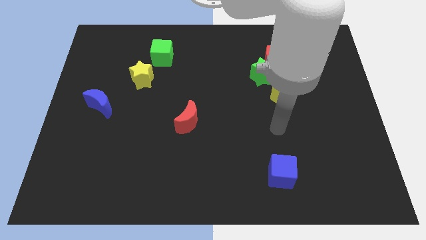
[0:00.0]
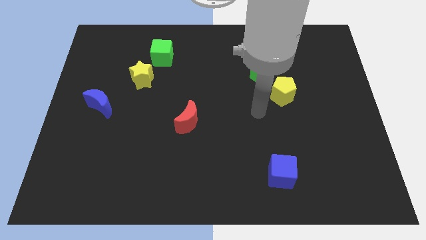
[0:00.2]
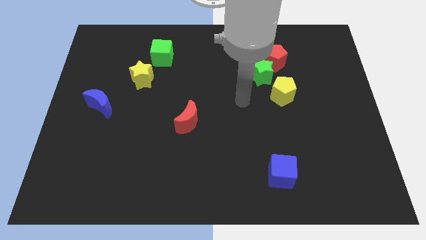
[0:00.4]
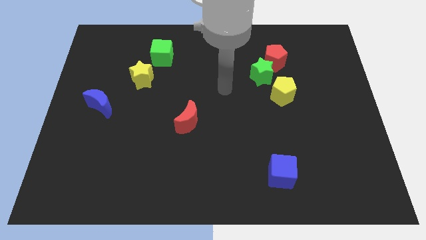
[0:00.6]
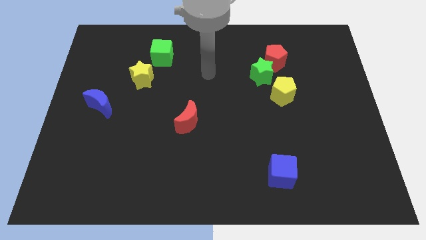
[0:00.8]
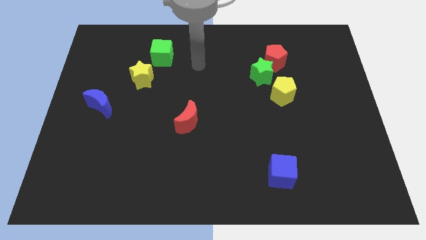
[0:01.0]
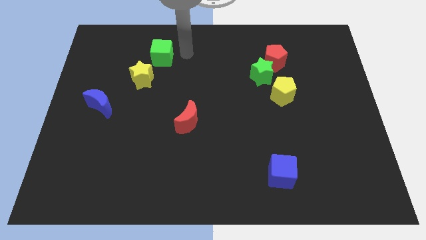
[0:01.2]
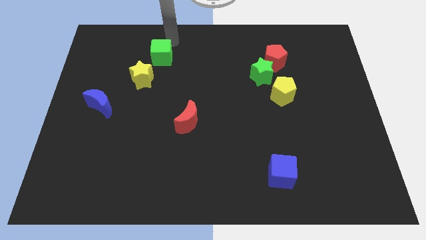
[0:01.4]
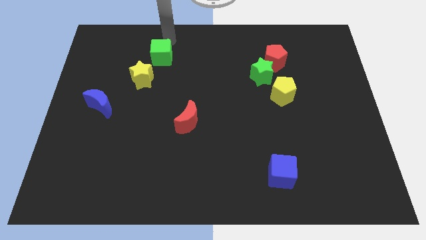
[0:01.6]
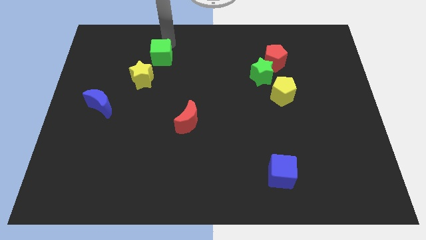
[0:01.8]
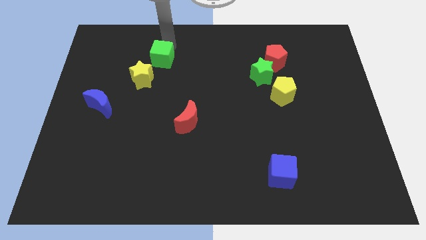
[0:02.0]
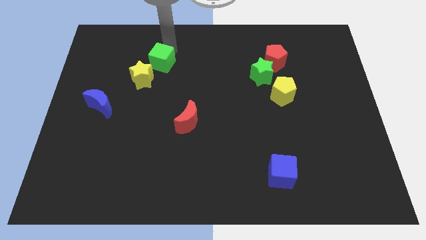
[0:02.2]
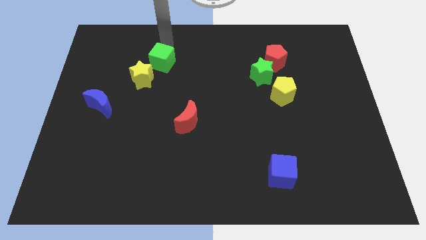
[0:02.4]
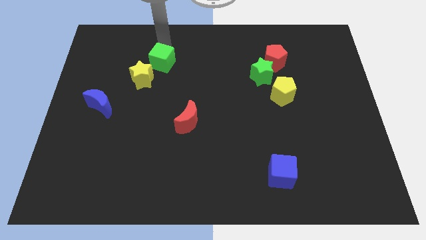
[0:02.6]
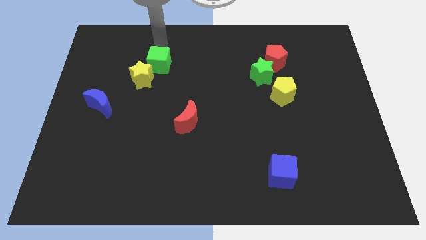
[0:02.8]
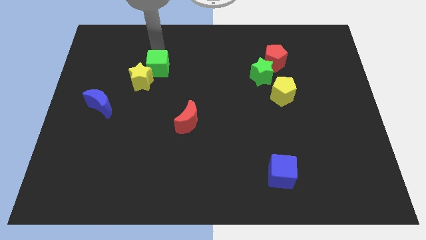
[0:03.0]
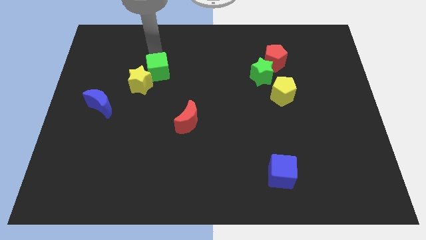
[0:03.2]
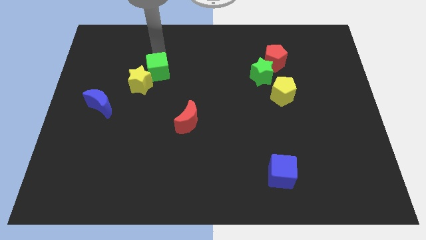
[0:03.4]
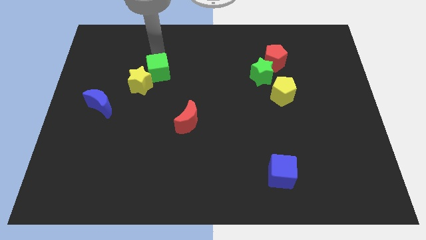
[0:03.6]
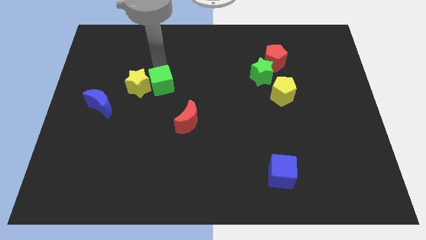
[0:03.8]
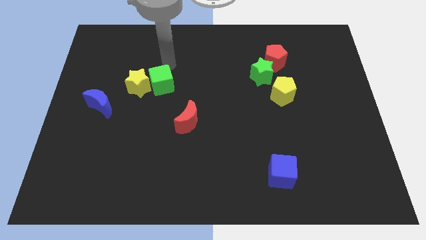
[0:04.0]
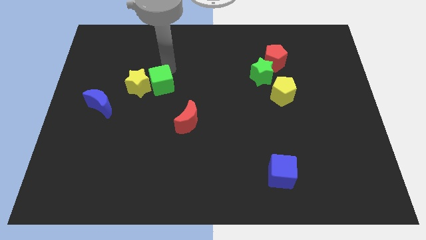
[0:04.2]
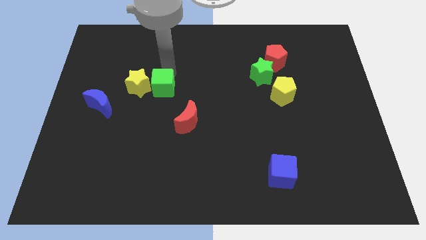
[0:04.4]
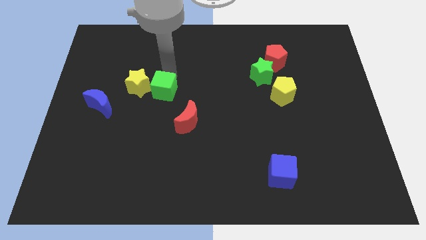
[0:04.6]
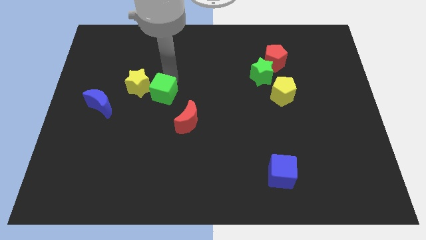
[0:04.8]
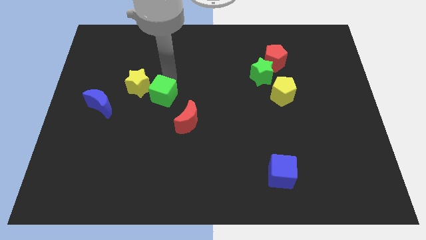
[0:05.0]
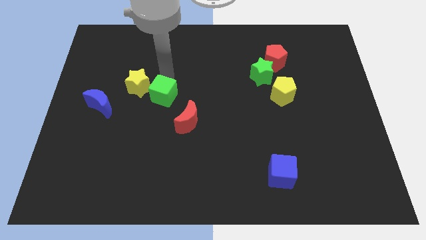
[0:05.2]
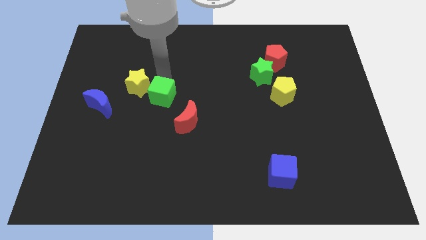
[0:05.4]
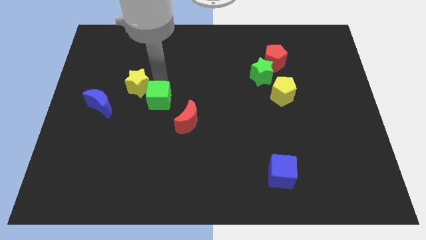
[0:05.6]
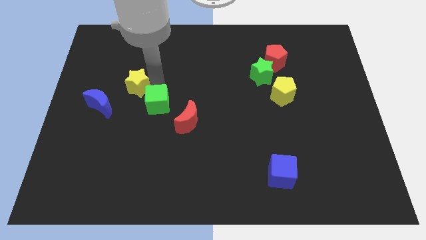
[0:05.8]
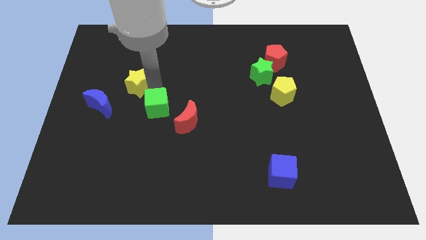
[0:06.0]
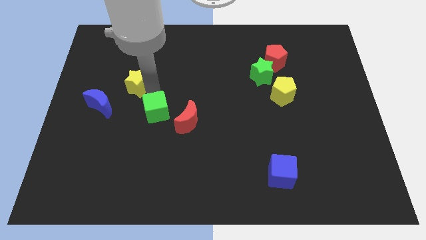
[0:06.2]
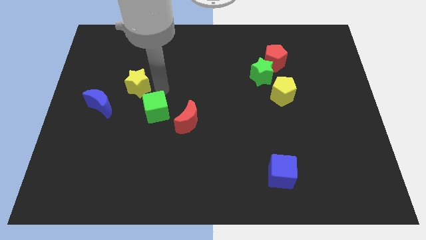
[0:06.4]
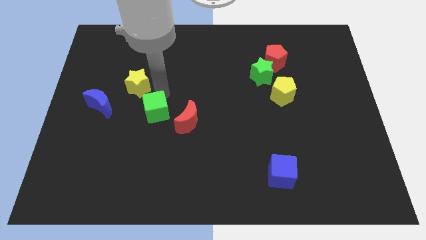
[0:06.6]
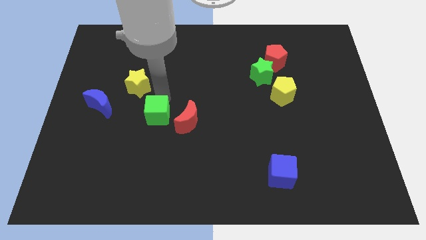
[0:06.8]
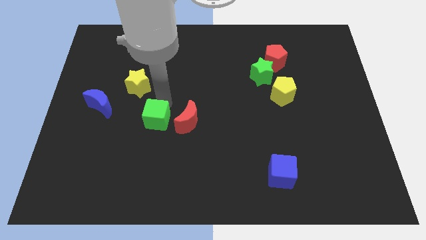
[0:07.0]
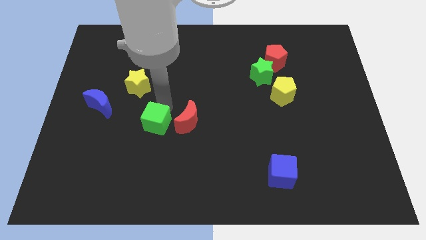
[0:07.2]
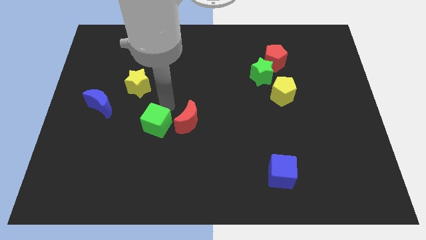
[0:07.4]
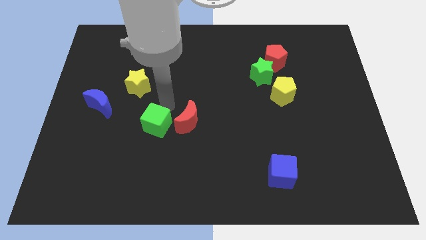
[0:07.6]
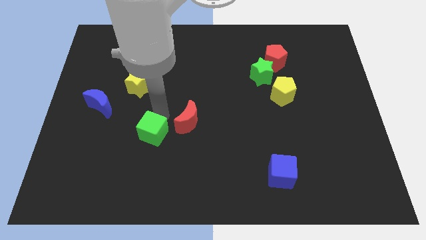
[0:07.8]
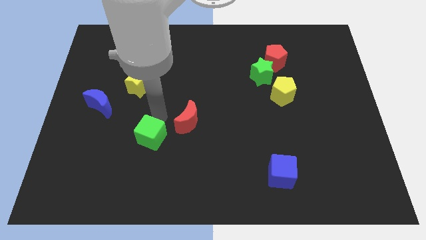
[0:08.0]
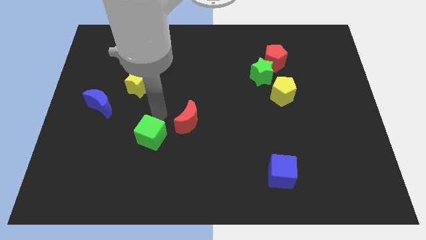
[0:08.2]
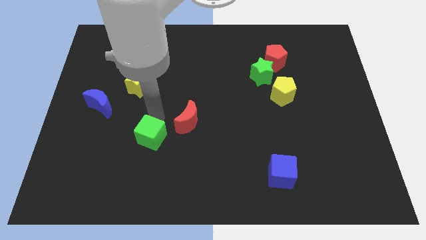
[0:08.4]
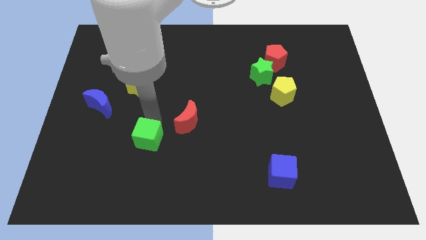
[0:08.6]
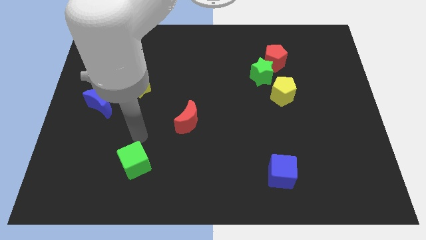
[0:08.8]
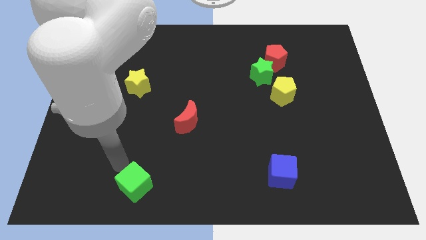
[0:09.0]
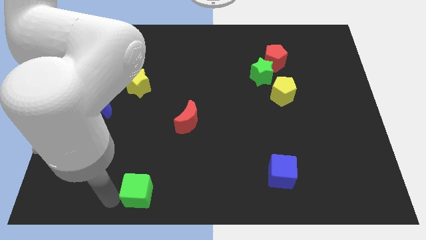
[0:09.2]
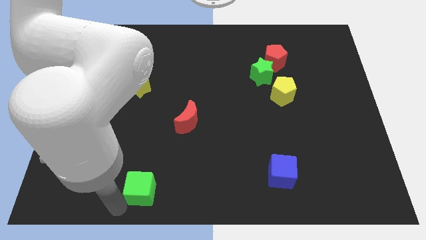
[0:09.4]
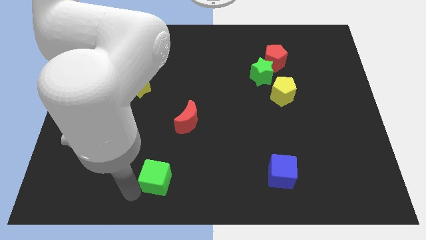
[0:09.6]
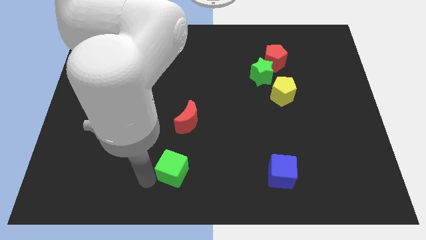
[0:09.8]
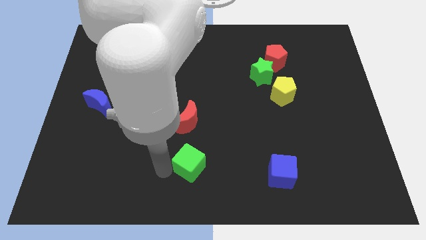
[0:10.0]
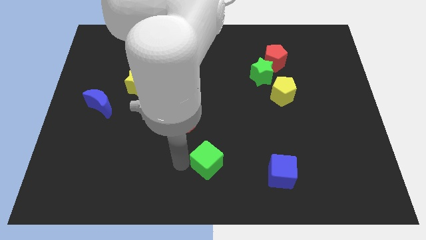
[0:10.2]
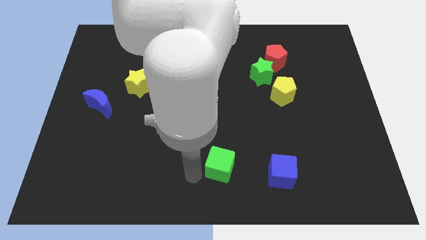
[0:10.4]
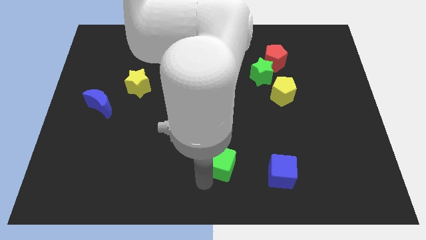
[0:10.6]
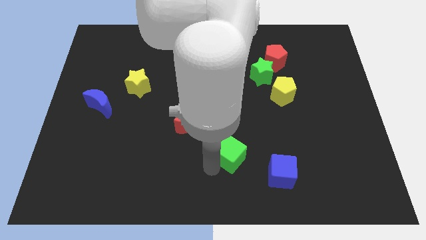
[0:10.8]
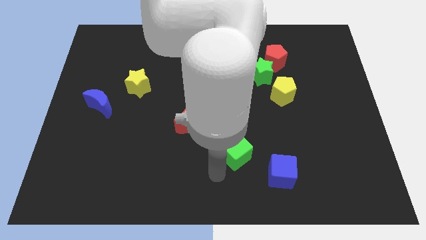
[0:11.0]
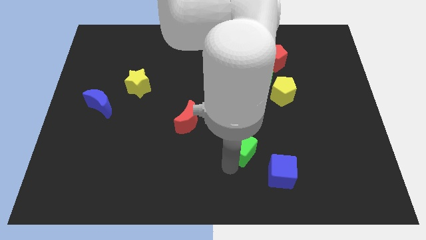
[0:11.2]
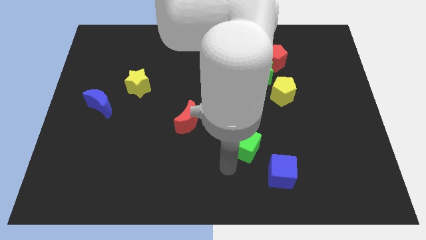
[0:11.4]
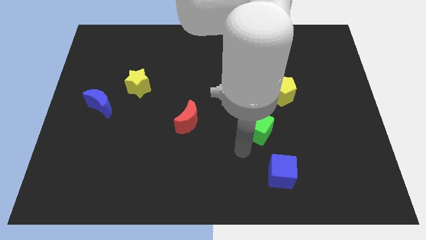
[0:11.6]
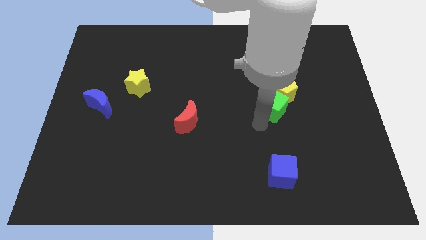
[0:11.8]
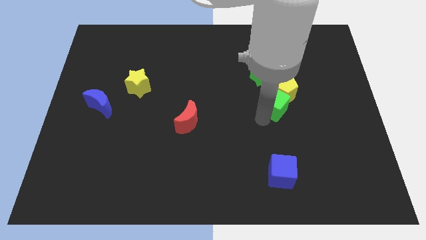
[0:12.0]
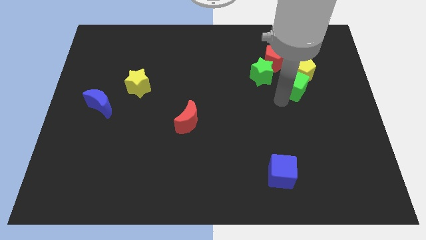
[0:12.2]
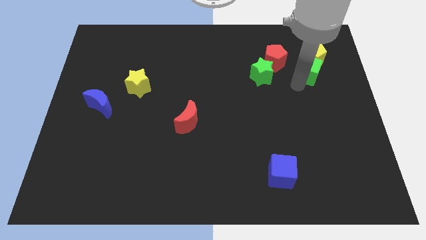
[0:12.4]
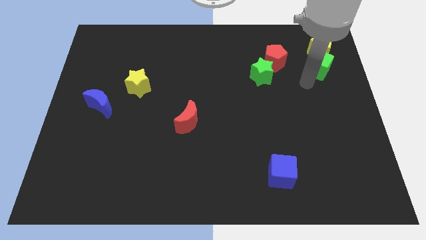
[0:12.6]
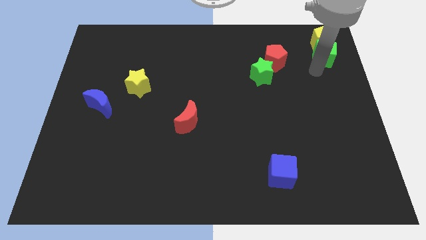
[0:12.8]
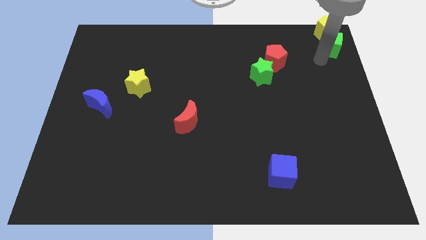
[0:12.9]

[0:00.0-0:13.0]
slide the green cube to the top right of the board
